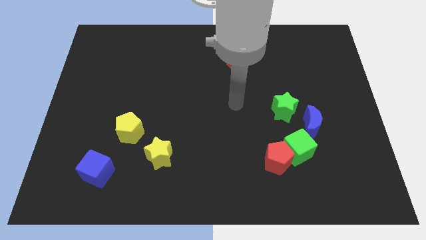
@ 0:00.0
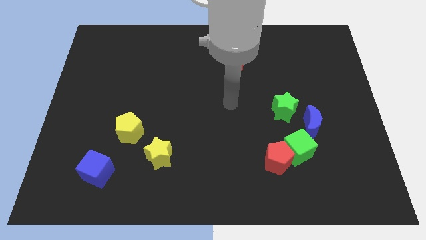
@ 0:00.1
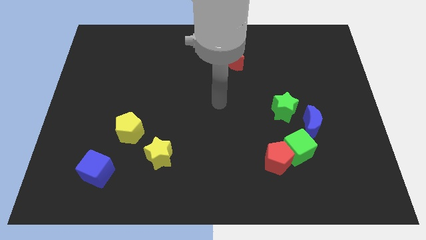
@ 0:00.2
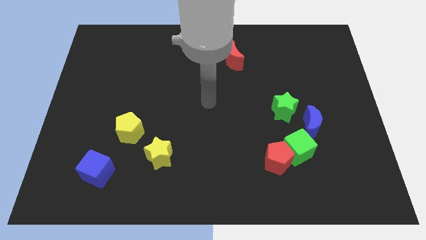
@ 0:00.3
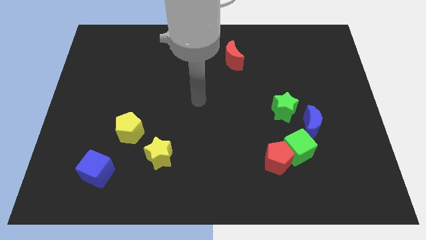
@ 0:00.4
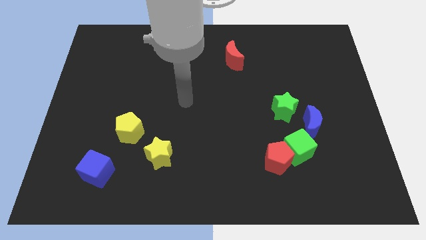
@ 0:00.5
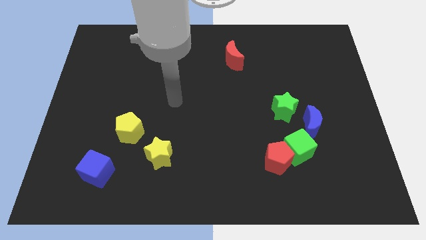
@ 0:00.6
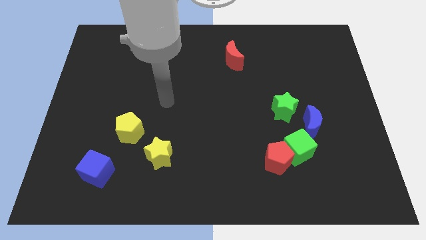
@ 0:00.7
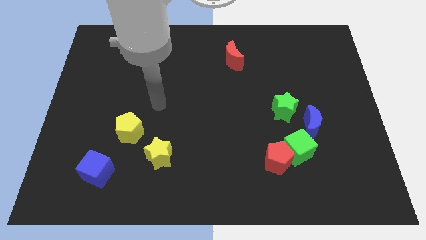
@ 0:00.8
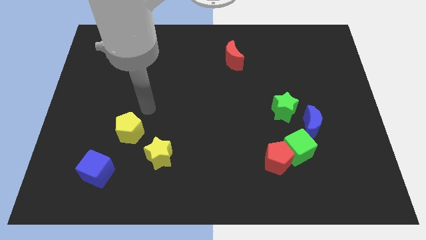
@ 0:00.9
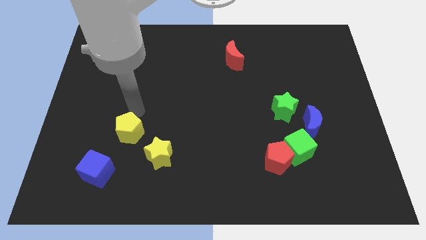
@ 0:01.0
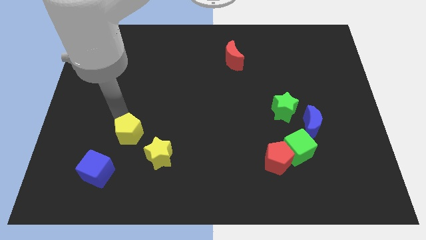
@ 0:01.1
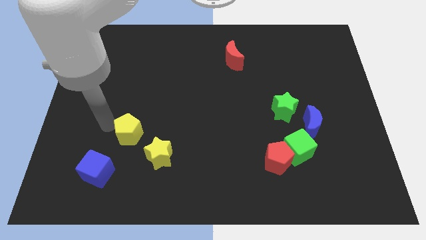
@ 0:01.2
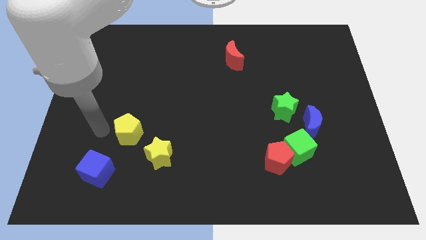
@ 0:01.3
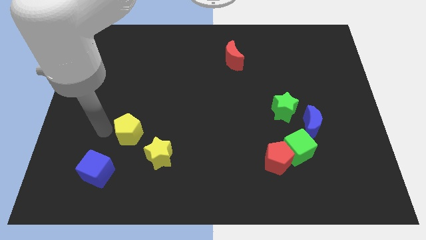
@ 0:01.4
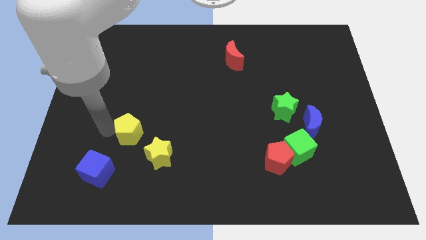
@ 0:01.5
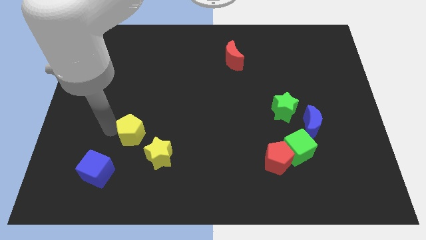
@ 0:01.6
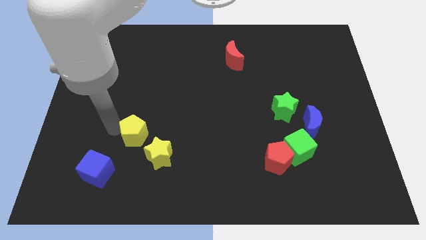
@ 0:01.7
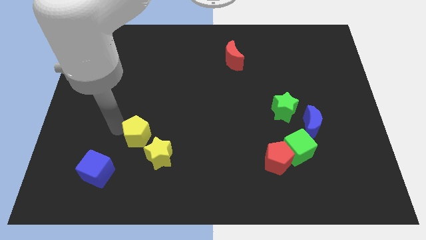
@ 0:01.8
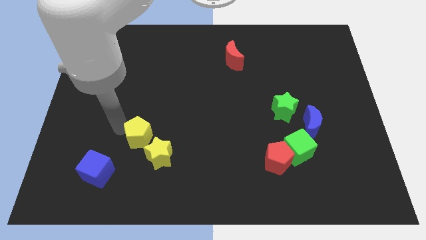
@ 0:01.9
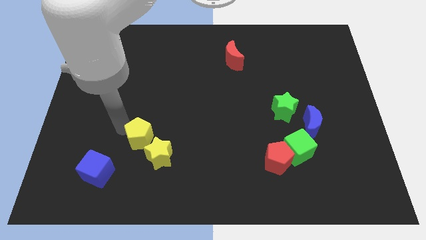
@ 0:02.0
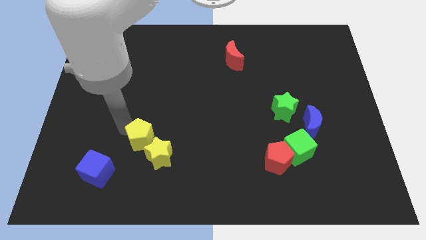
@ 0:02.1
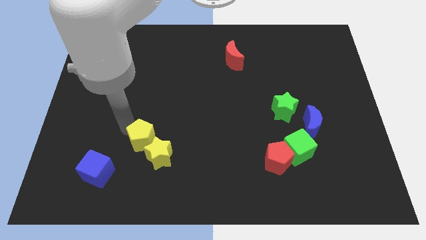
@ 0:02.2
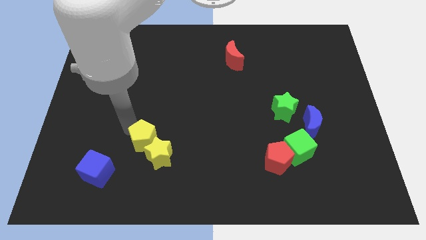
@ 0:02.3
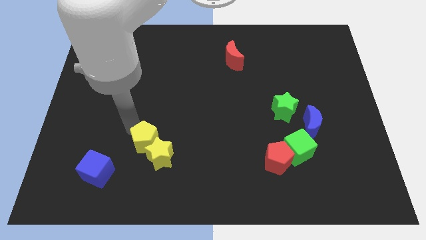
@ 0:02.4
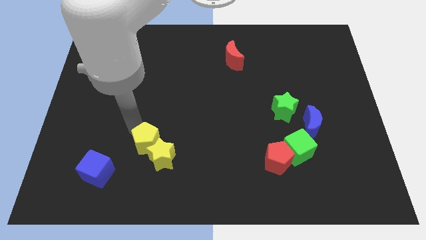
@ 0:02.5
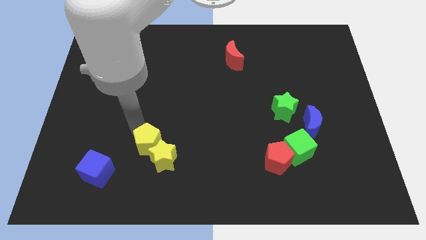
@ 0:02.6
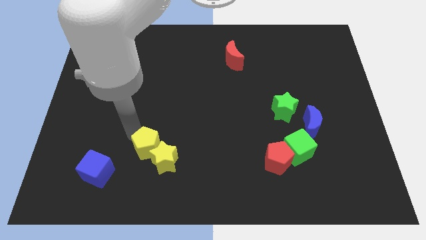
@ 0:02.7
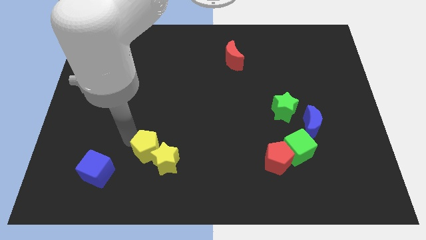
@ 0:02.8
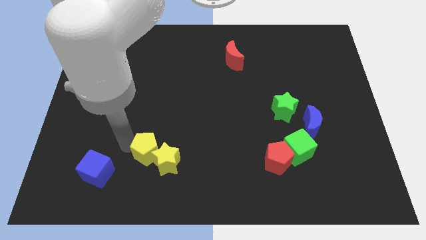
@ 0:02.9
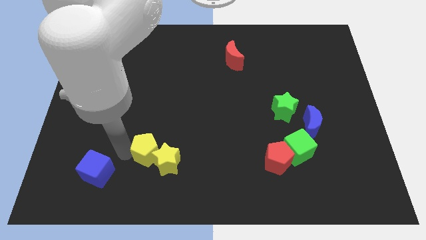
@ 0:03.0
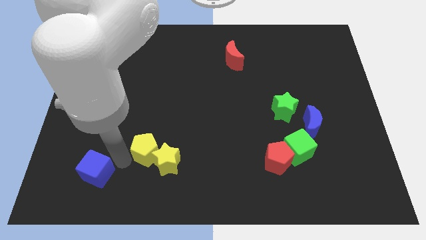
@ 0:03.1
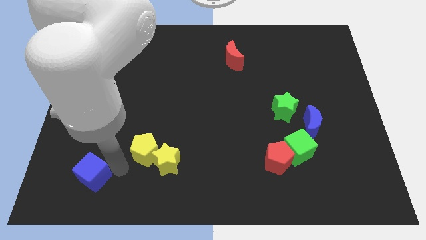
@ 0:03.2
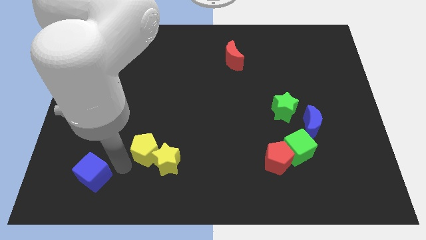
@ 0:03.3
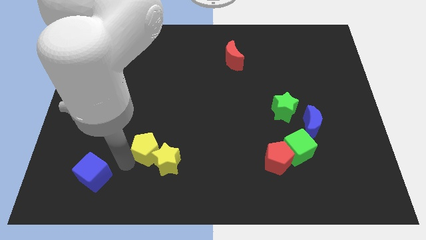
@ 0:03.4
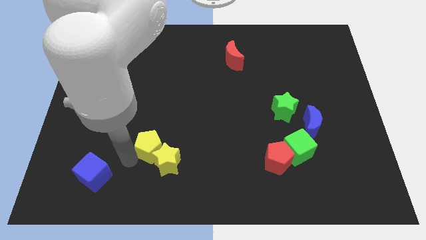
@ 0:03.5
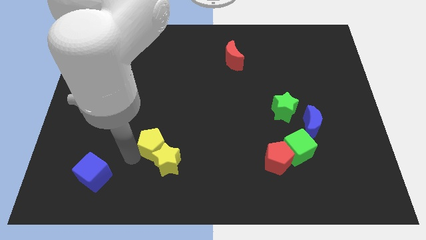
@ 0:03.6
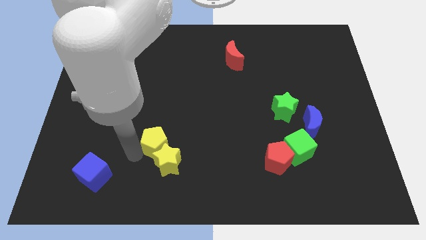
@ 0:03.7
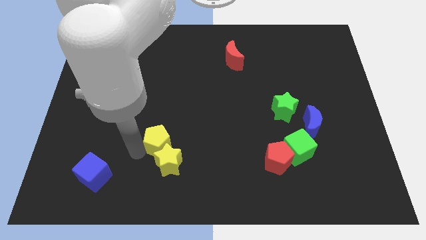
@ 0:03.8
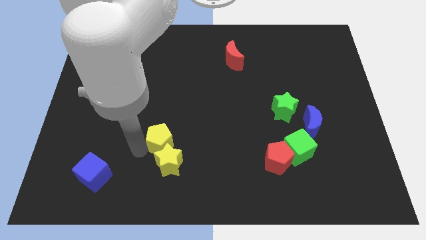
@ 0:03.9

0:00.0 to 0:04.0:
move the yellow pentagon a bit right

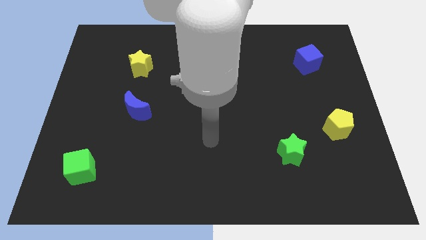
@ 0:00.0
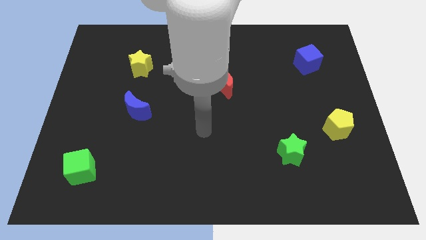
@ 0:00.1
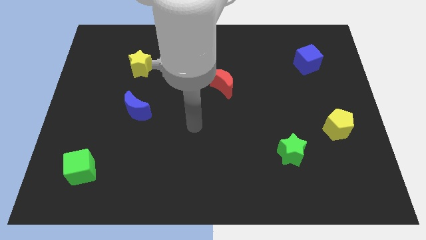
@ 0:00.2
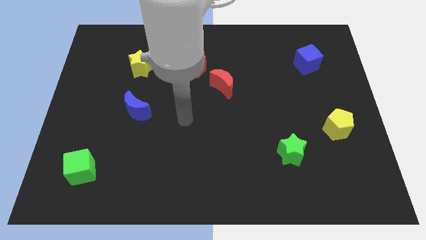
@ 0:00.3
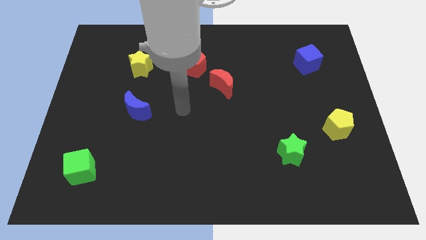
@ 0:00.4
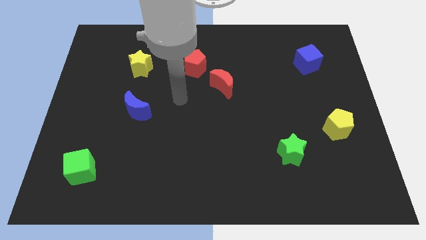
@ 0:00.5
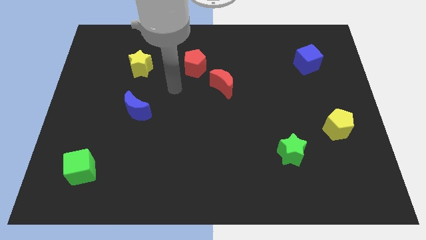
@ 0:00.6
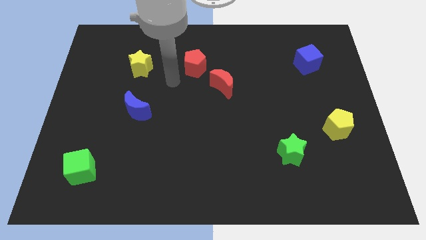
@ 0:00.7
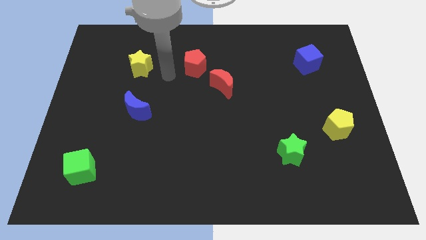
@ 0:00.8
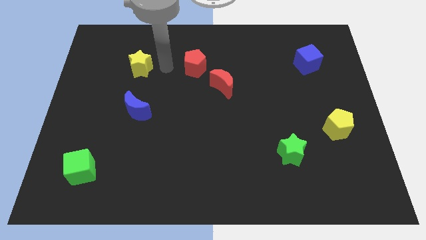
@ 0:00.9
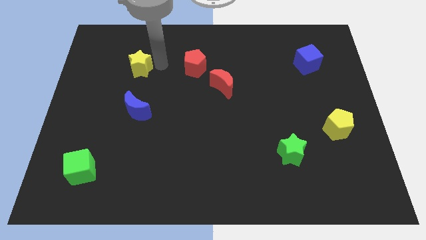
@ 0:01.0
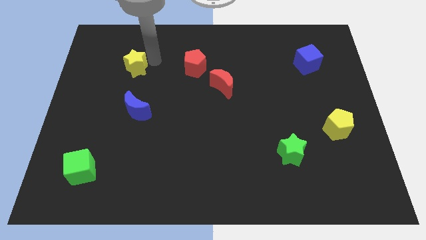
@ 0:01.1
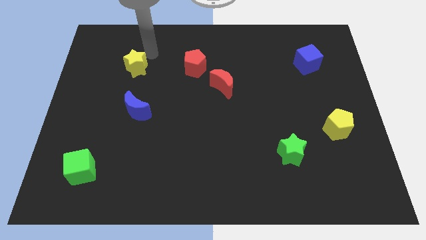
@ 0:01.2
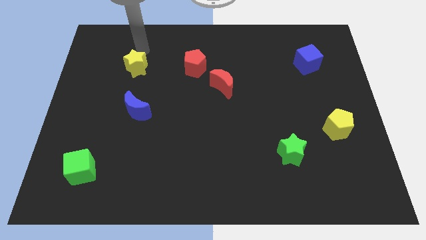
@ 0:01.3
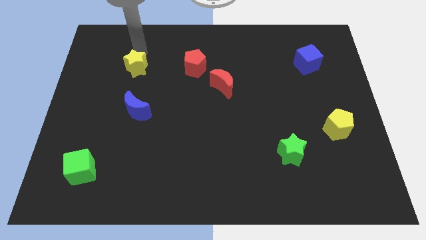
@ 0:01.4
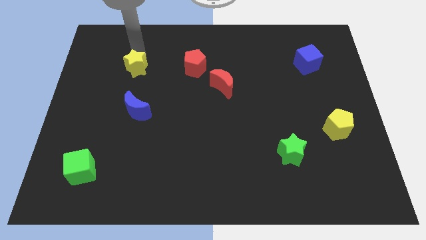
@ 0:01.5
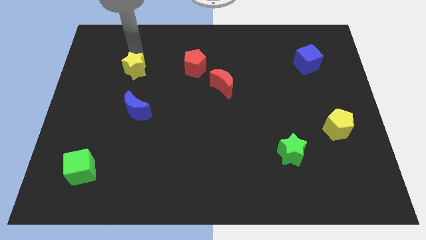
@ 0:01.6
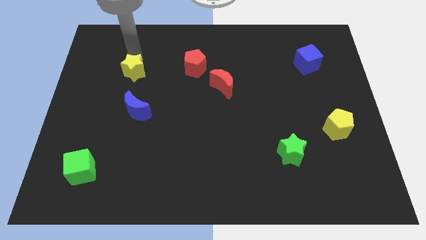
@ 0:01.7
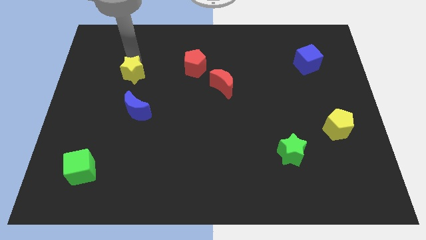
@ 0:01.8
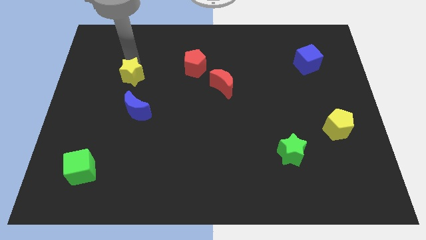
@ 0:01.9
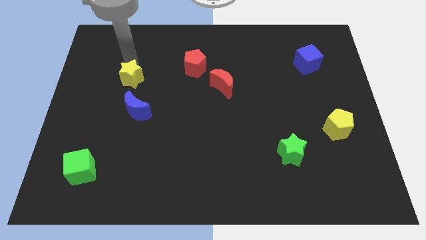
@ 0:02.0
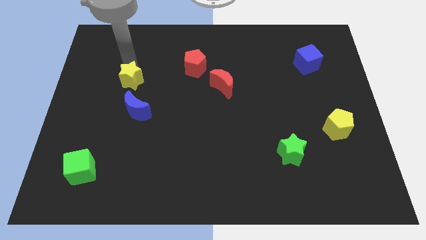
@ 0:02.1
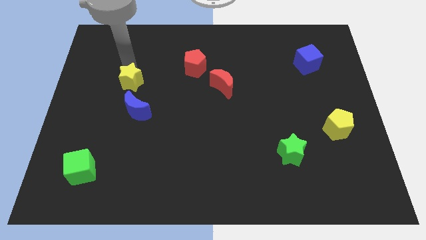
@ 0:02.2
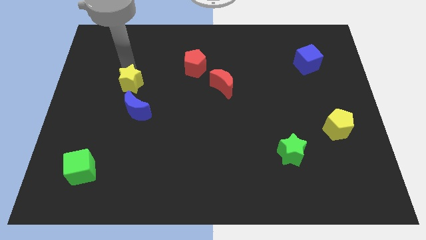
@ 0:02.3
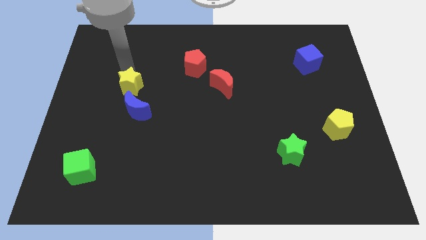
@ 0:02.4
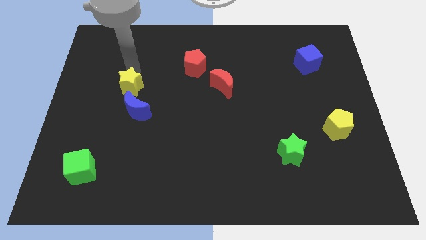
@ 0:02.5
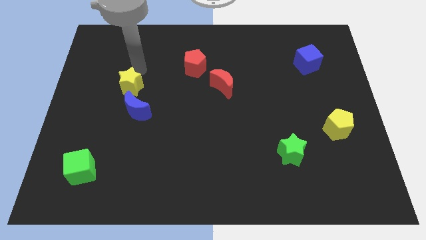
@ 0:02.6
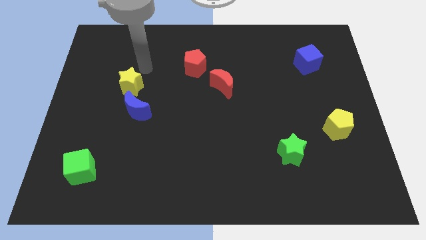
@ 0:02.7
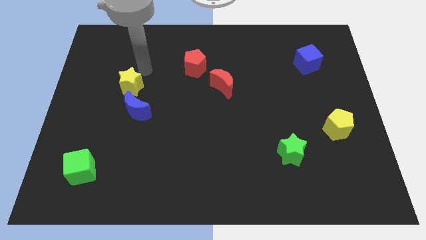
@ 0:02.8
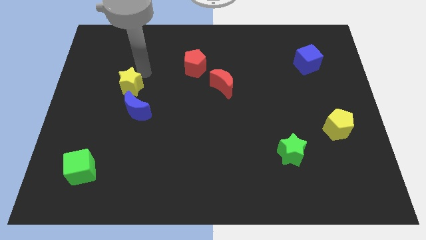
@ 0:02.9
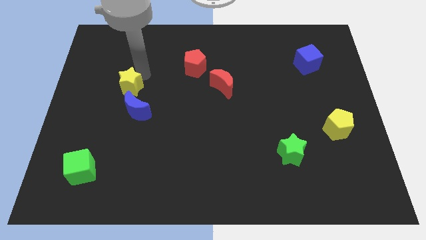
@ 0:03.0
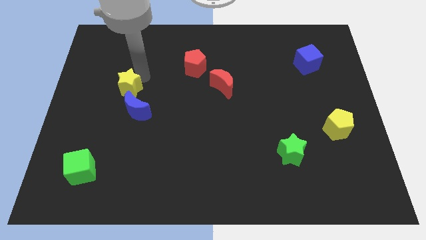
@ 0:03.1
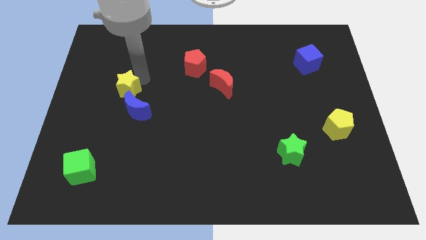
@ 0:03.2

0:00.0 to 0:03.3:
move the yellow star downwards a little bit

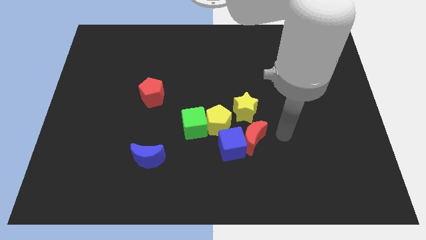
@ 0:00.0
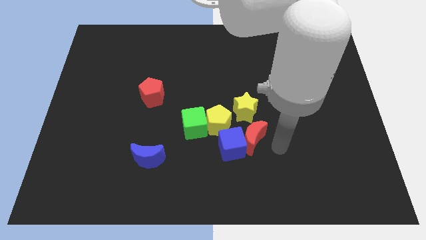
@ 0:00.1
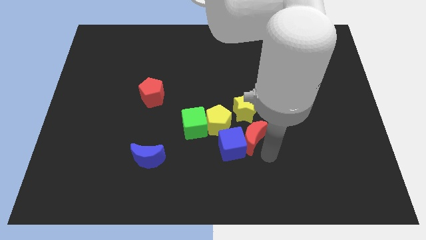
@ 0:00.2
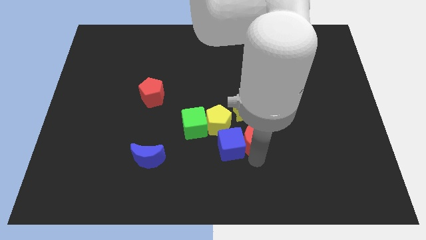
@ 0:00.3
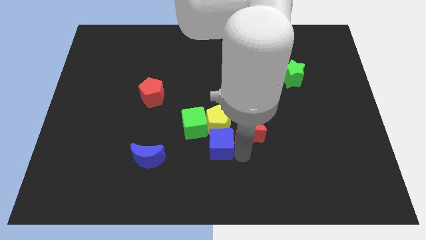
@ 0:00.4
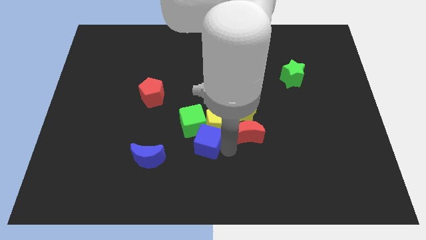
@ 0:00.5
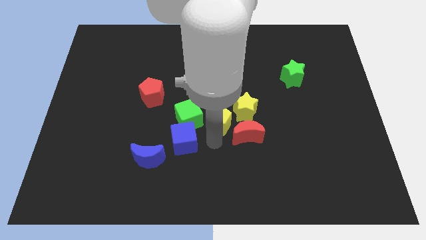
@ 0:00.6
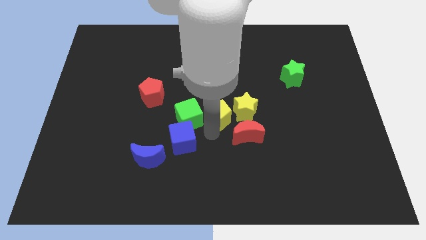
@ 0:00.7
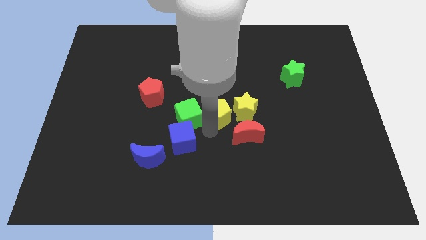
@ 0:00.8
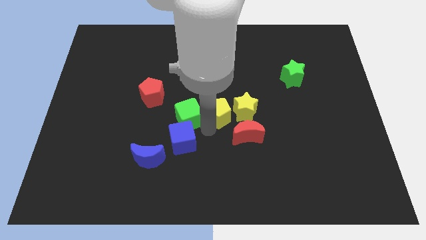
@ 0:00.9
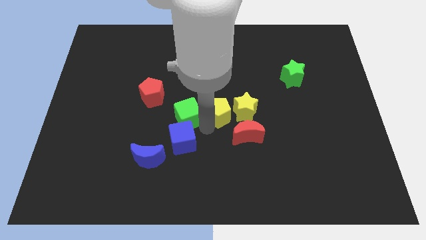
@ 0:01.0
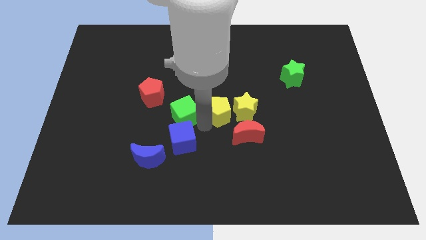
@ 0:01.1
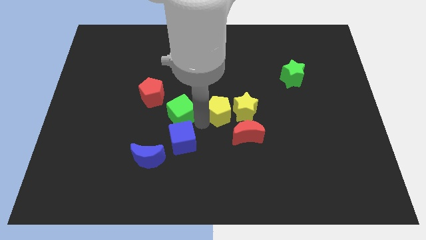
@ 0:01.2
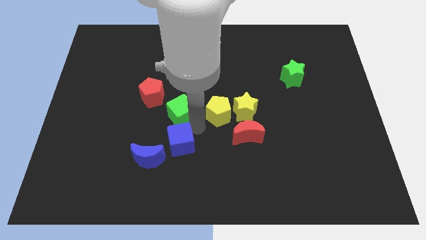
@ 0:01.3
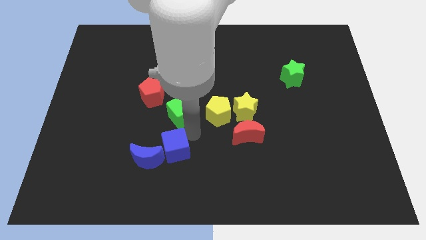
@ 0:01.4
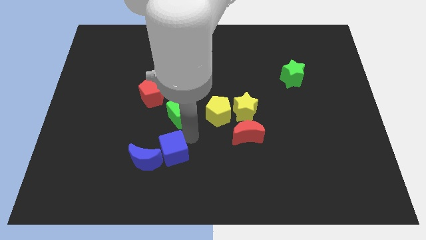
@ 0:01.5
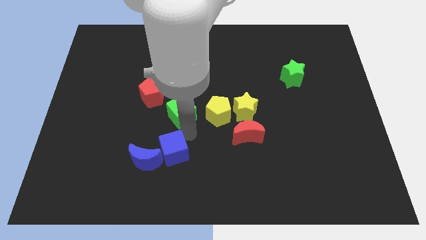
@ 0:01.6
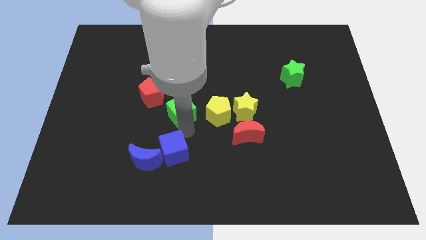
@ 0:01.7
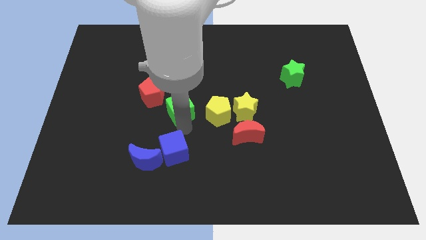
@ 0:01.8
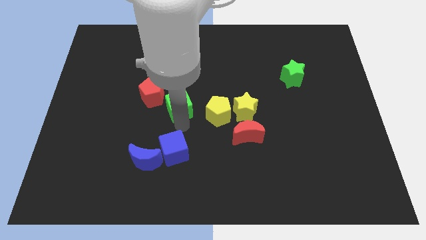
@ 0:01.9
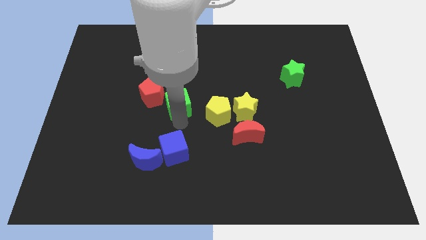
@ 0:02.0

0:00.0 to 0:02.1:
push the green cube up and then left slightly
